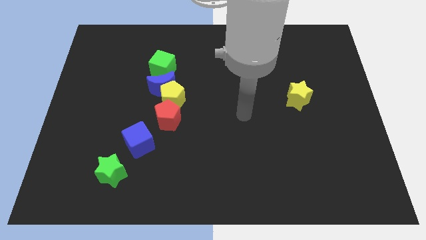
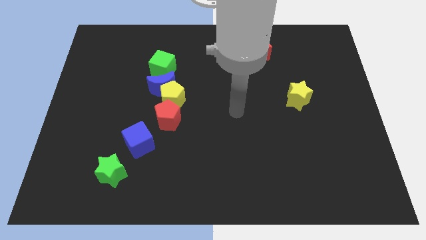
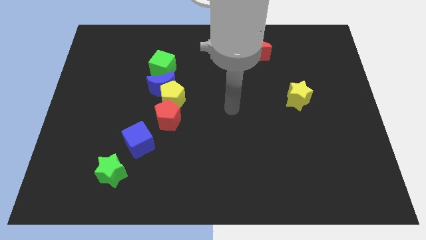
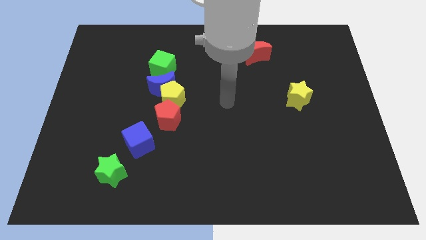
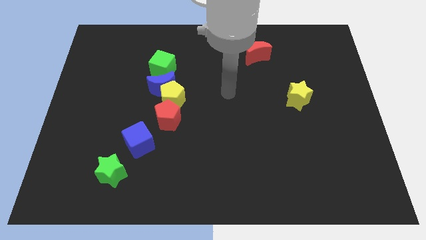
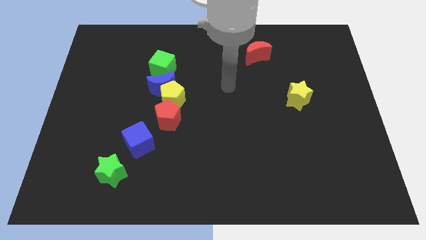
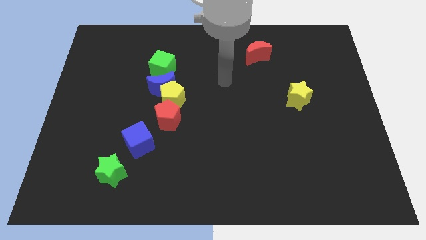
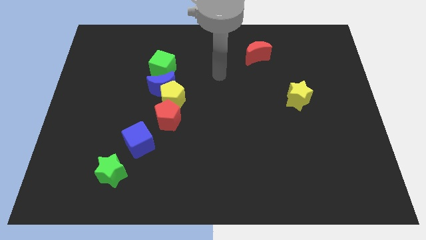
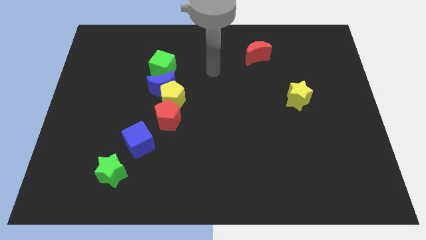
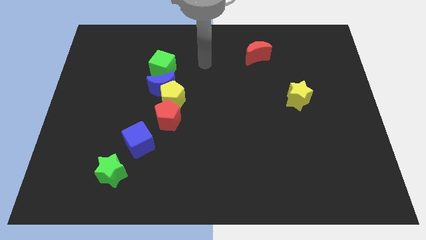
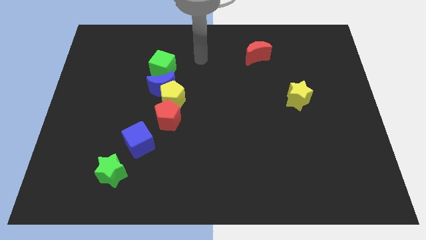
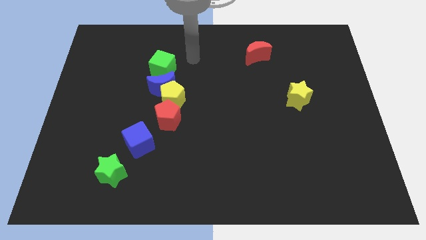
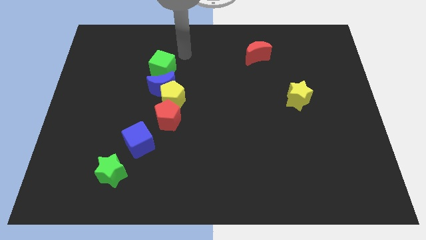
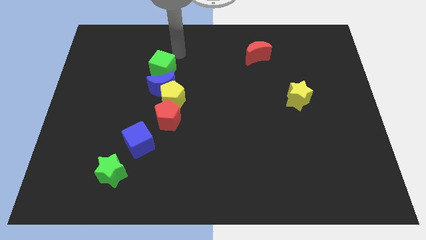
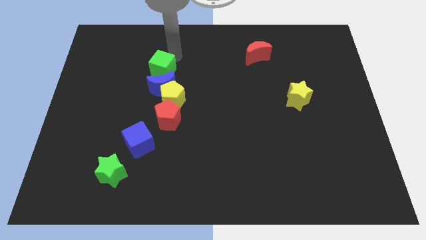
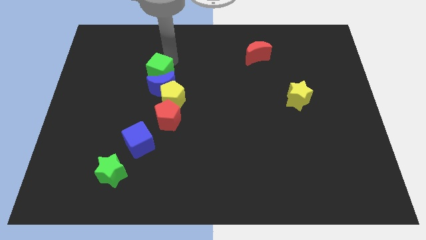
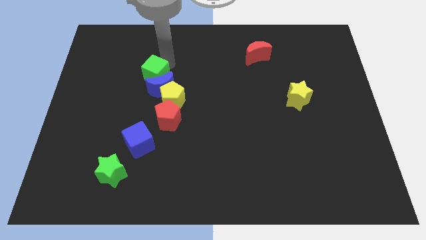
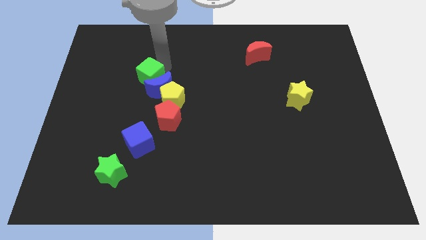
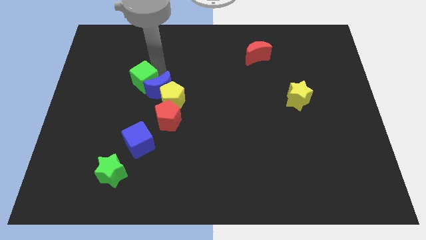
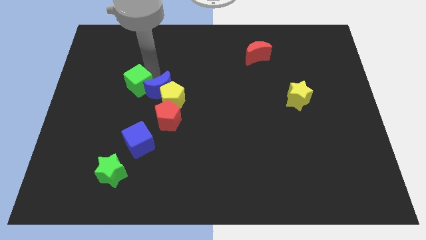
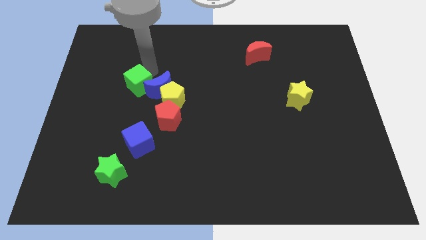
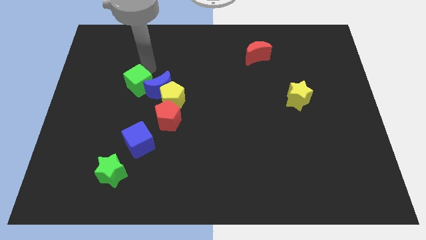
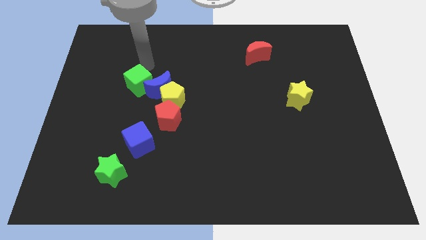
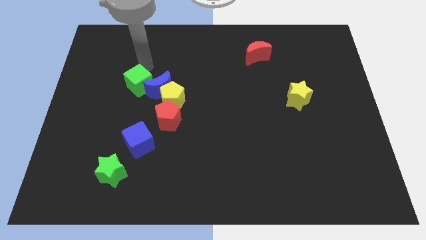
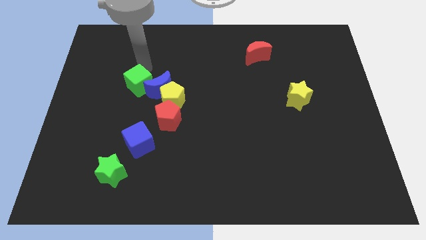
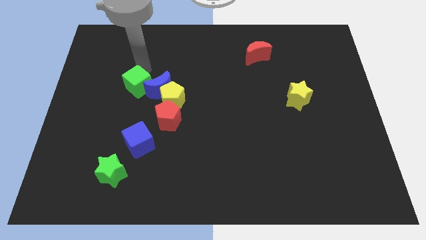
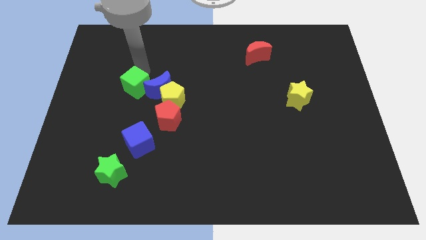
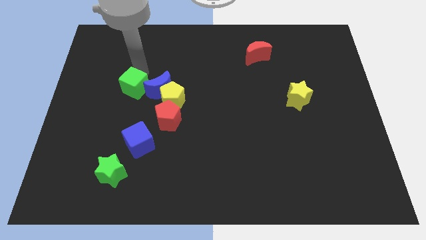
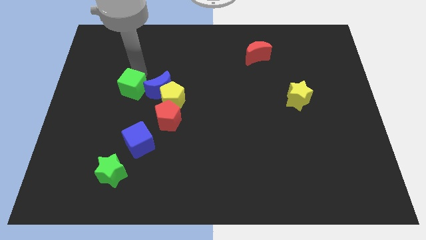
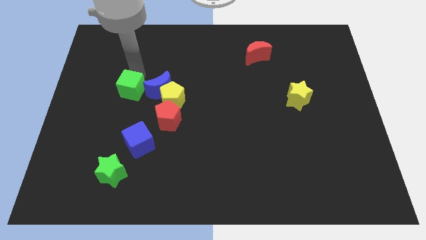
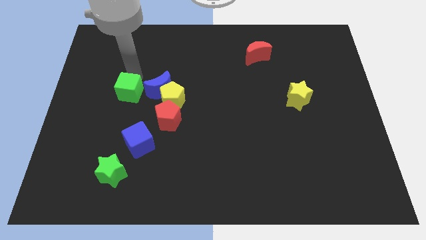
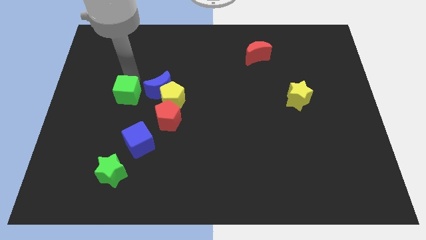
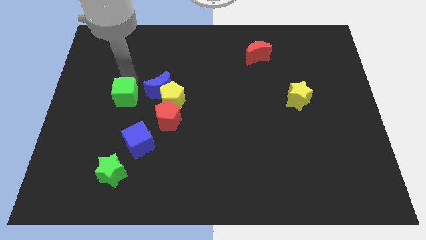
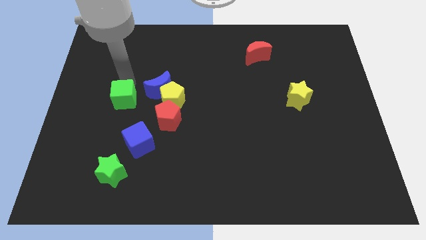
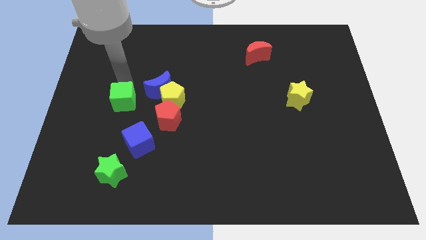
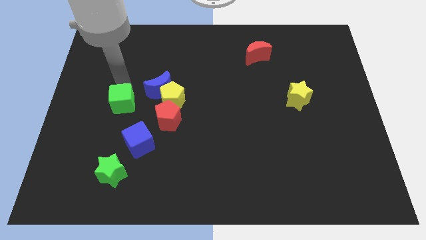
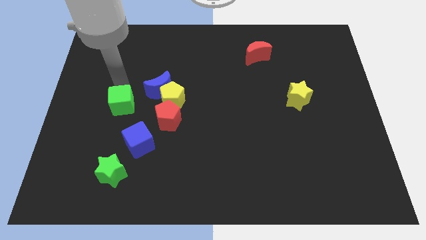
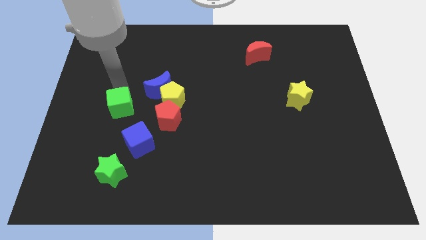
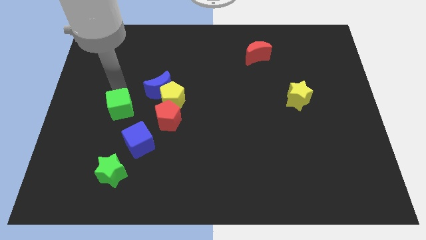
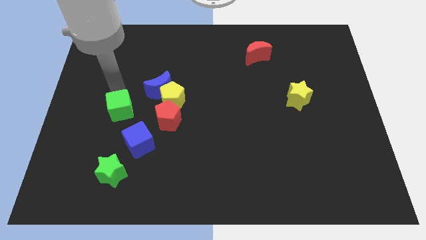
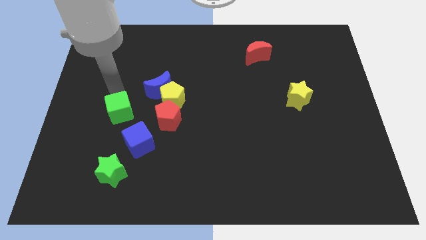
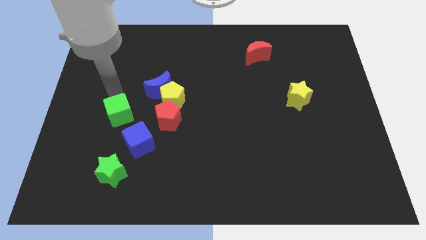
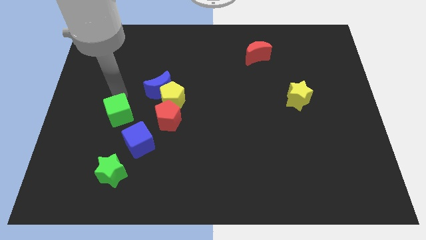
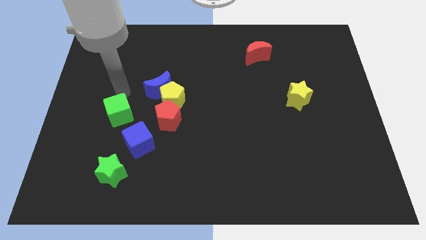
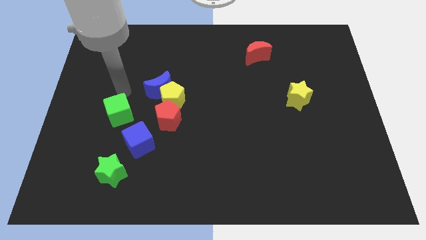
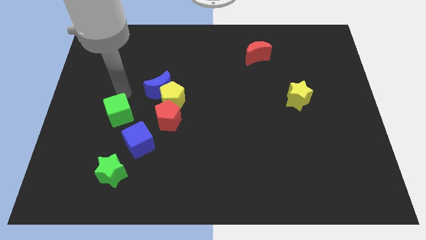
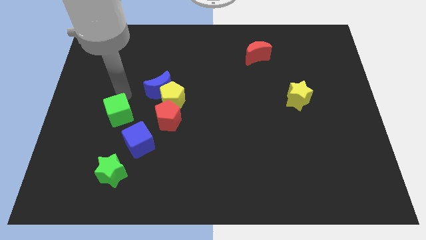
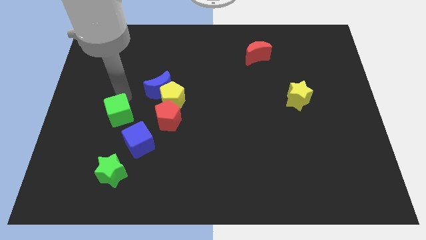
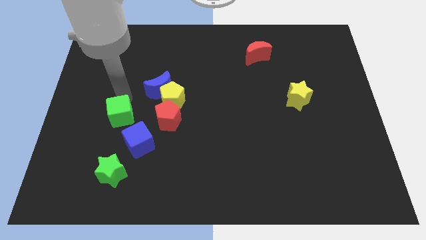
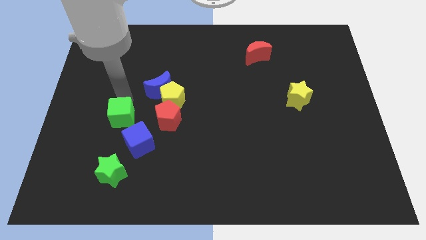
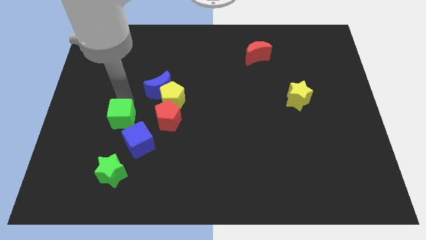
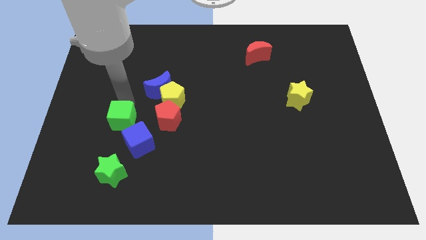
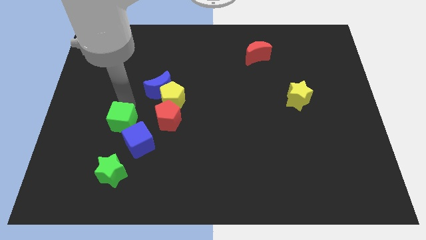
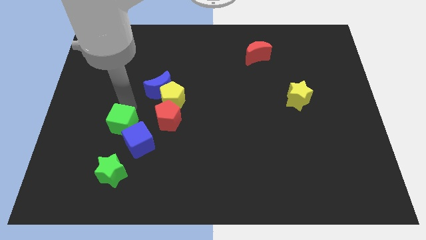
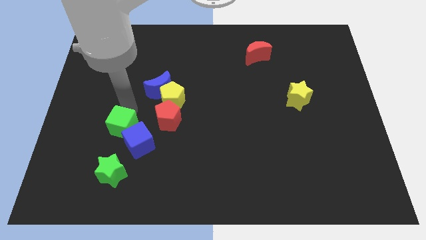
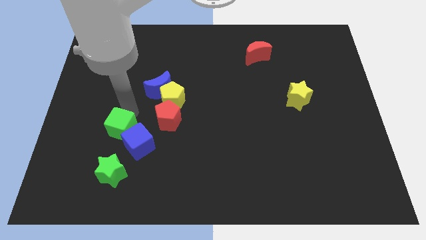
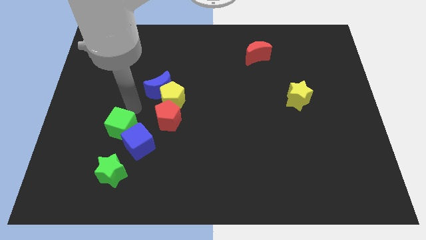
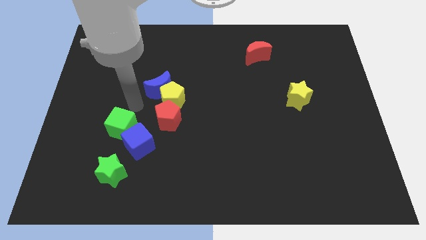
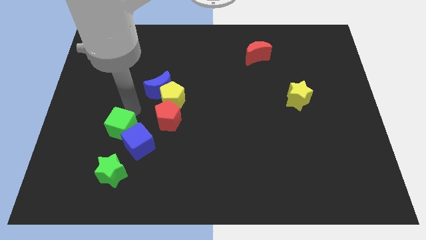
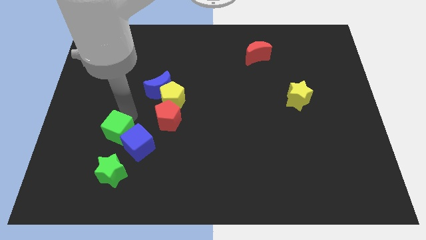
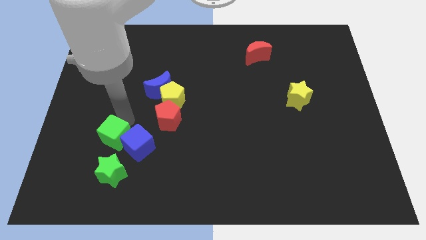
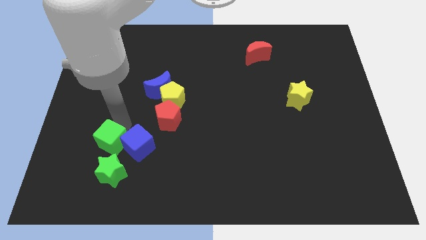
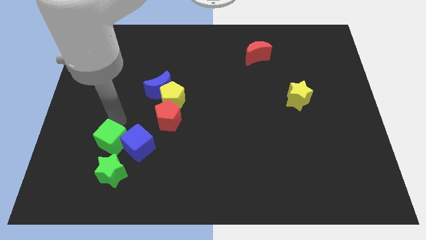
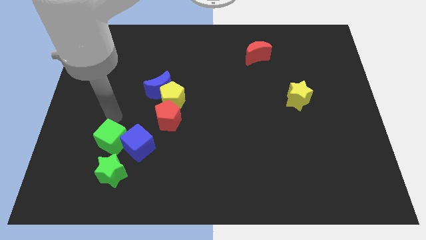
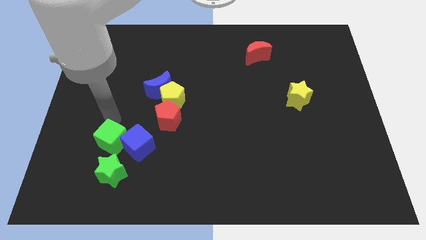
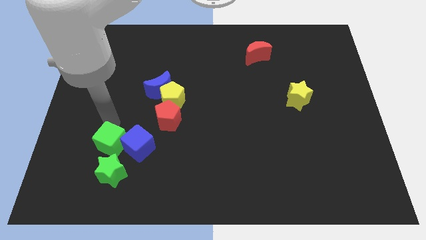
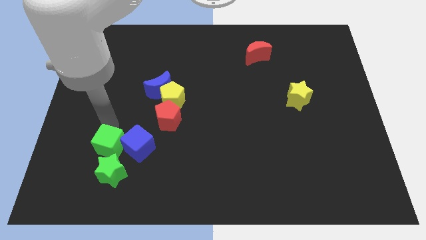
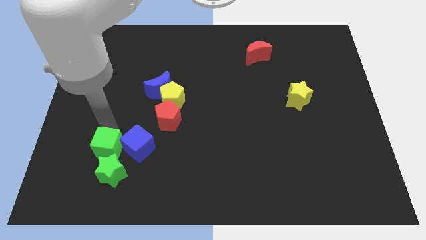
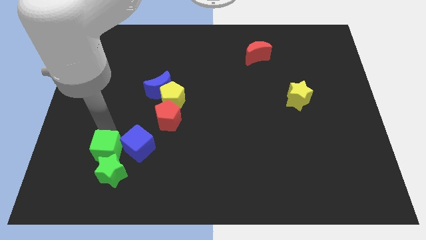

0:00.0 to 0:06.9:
move the green cube next to the green star
